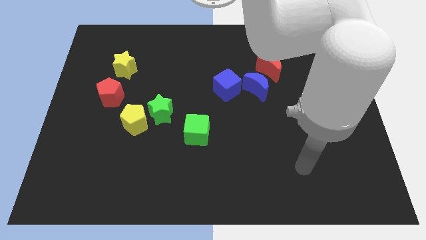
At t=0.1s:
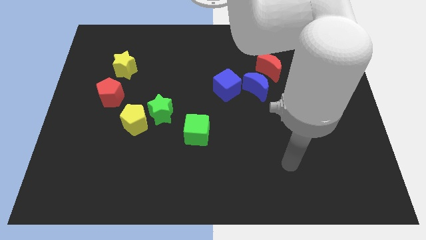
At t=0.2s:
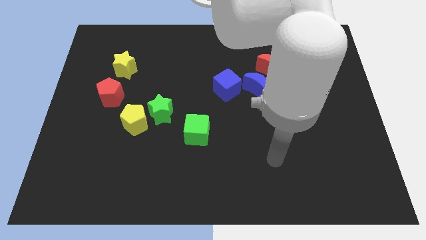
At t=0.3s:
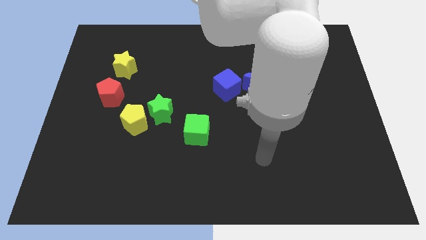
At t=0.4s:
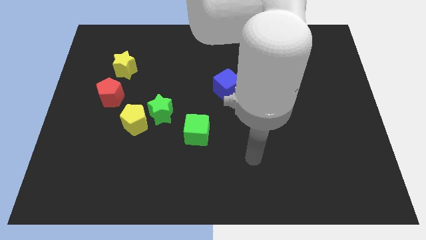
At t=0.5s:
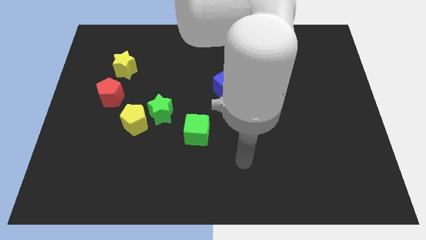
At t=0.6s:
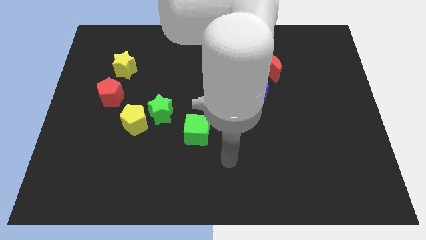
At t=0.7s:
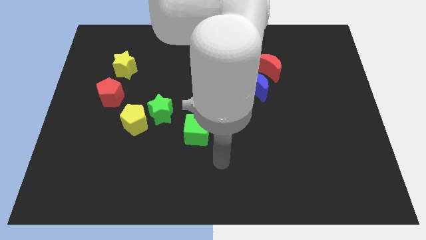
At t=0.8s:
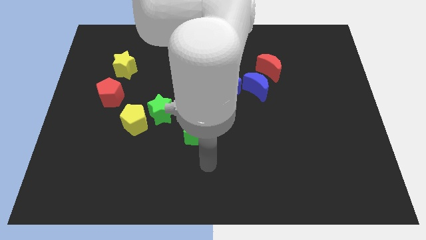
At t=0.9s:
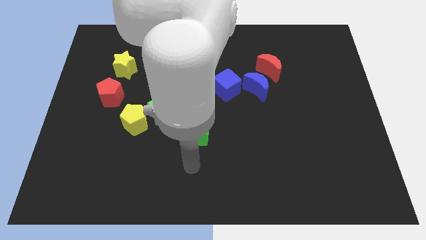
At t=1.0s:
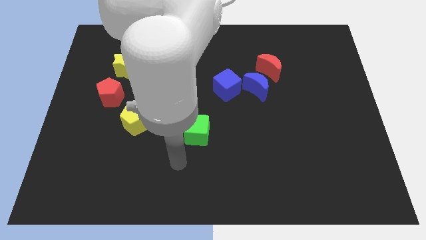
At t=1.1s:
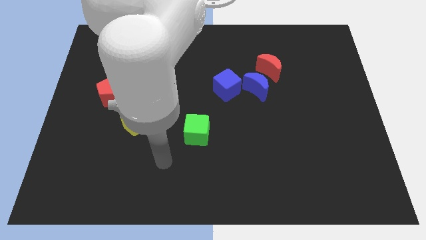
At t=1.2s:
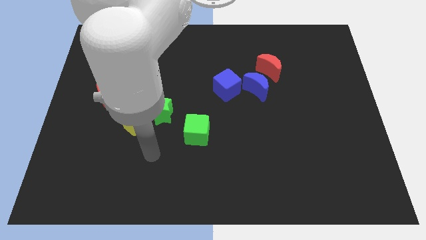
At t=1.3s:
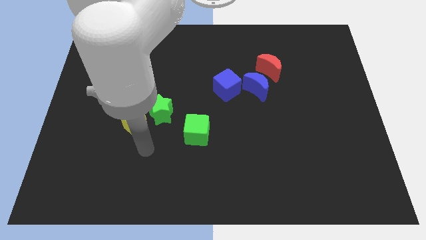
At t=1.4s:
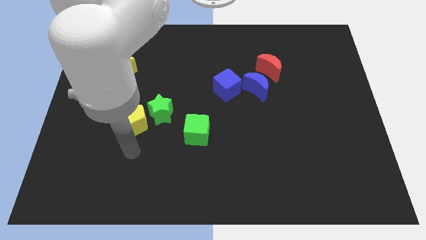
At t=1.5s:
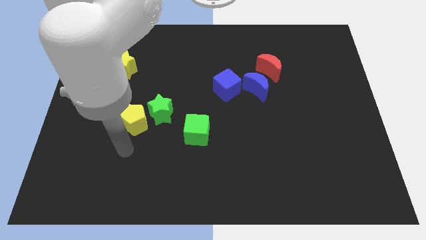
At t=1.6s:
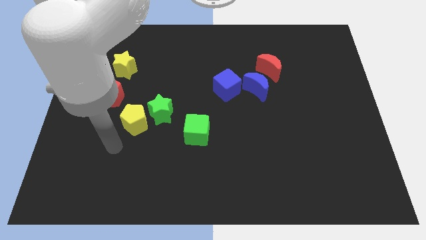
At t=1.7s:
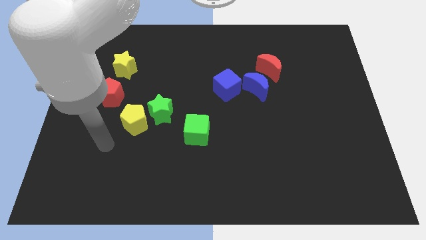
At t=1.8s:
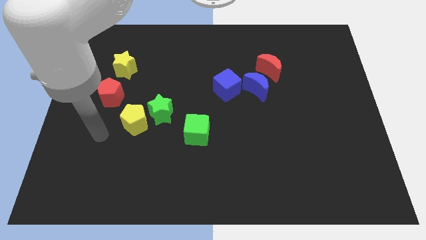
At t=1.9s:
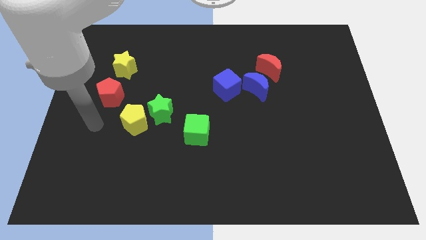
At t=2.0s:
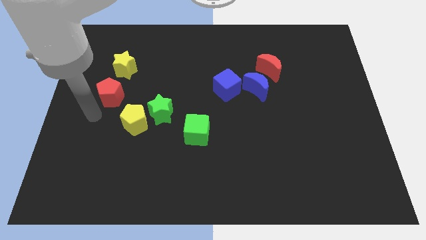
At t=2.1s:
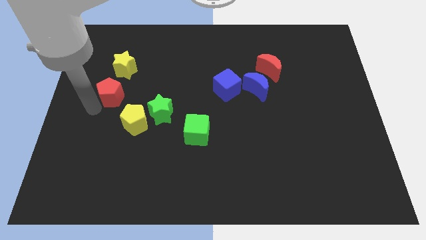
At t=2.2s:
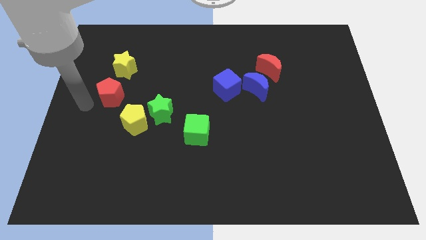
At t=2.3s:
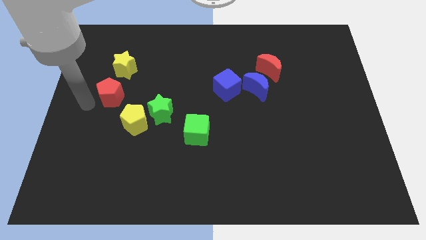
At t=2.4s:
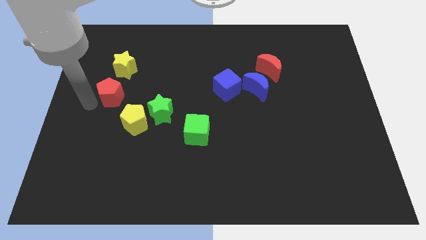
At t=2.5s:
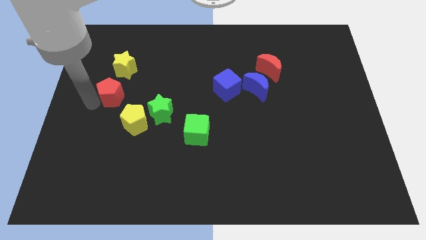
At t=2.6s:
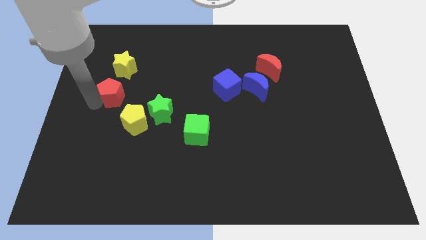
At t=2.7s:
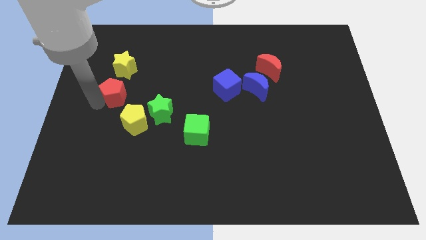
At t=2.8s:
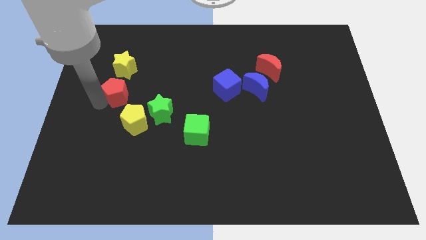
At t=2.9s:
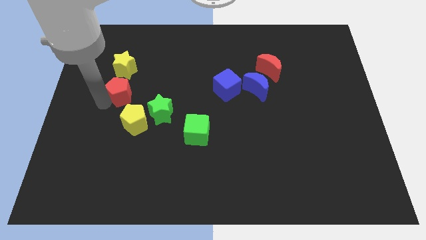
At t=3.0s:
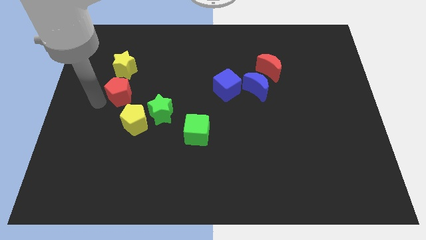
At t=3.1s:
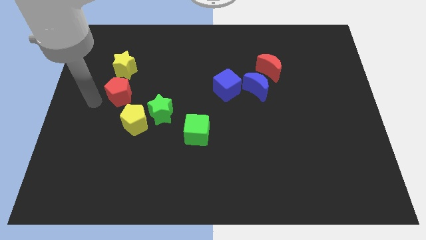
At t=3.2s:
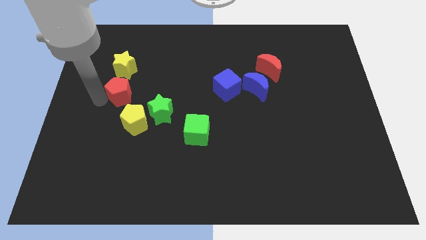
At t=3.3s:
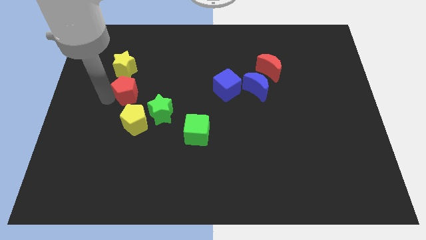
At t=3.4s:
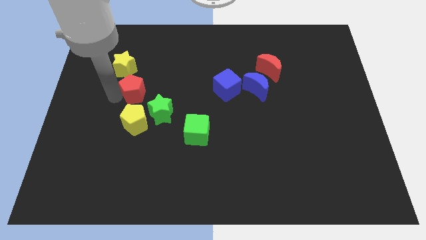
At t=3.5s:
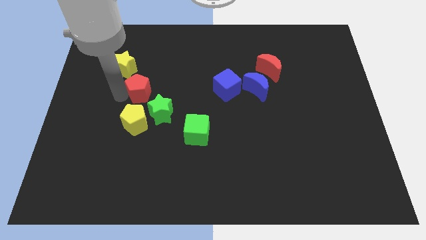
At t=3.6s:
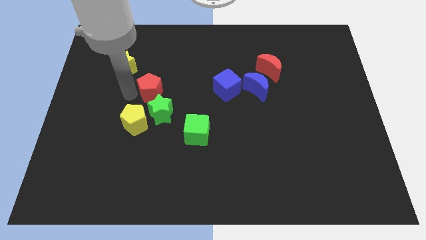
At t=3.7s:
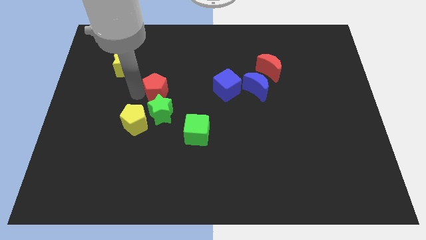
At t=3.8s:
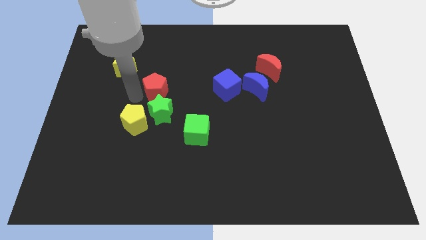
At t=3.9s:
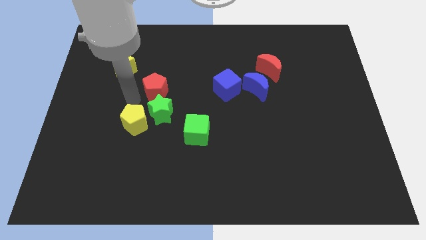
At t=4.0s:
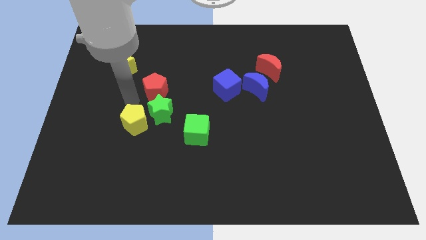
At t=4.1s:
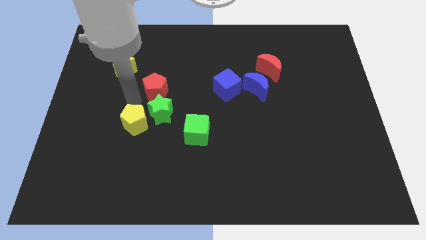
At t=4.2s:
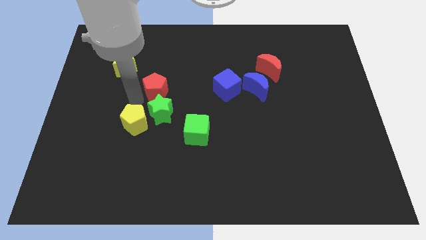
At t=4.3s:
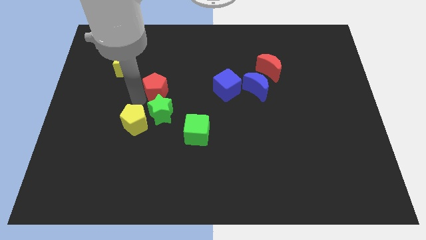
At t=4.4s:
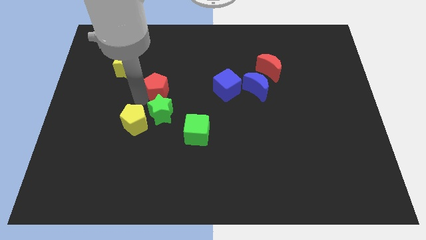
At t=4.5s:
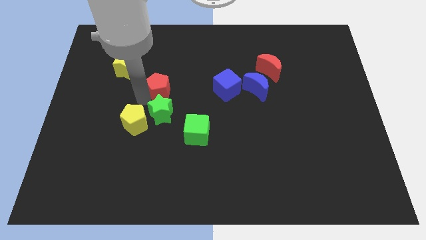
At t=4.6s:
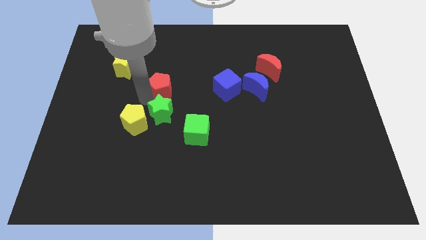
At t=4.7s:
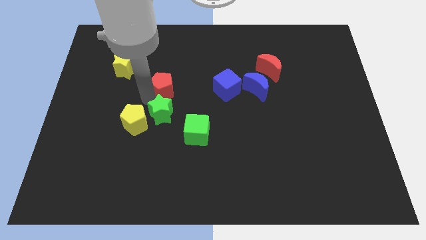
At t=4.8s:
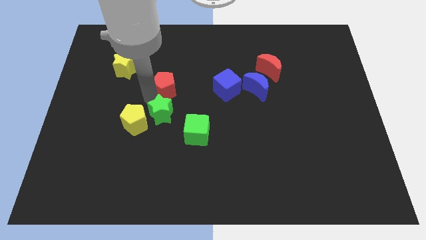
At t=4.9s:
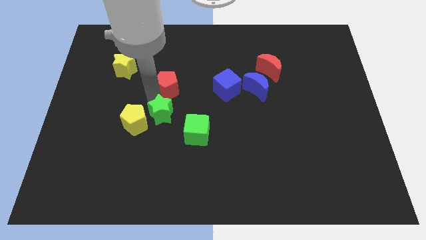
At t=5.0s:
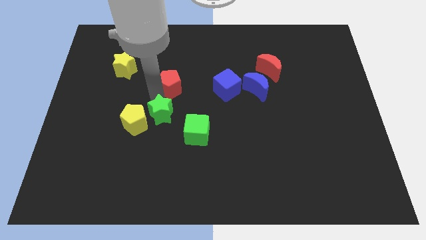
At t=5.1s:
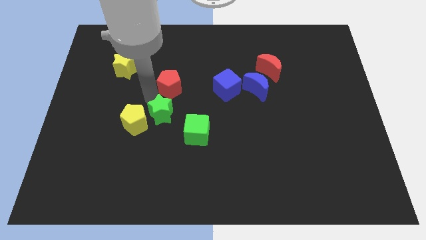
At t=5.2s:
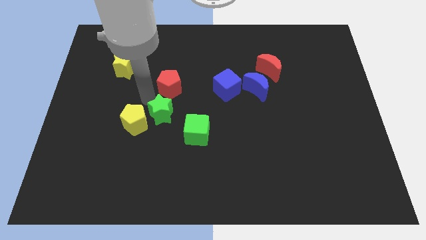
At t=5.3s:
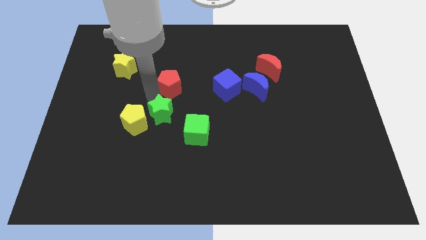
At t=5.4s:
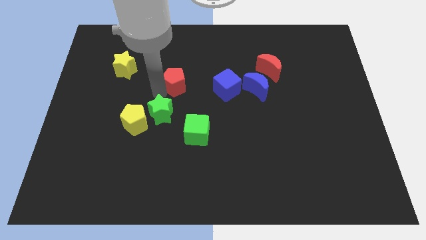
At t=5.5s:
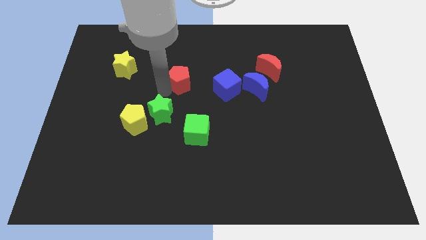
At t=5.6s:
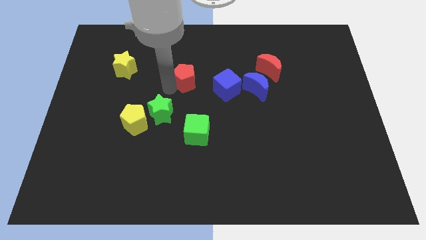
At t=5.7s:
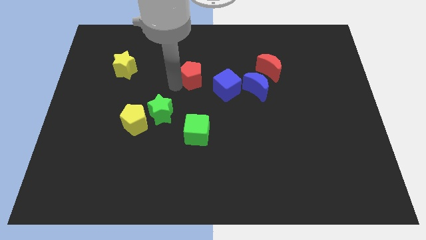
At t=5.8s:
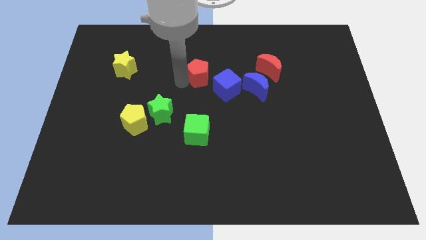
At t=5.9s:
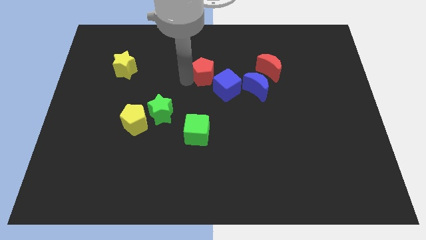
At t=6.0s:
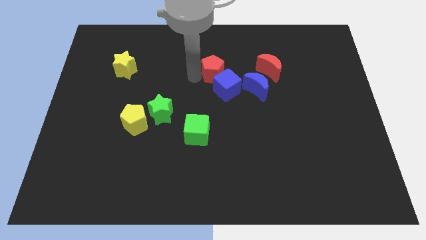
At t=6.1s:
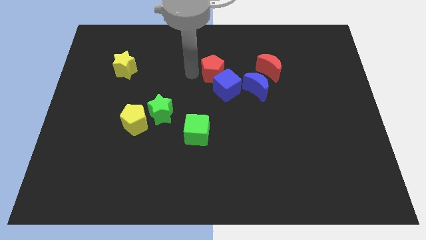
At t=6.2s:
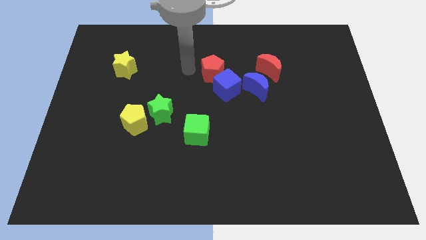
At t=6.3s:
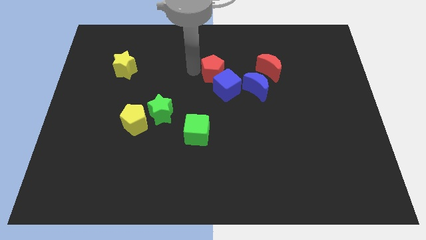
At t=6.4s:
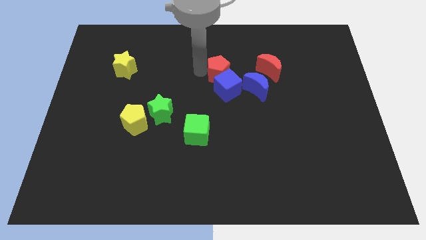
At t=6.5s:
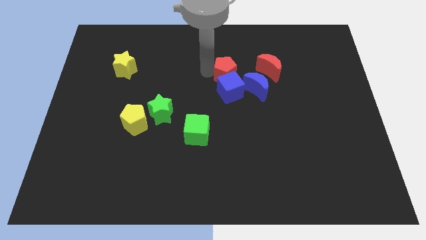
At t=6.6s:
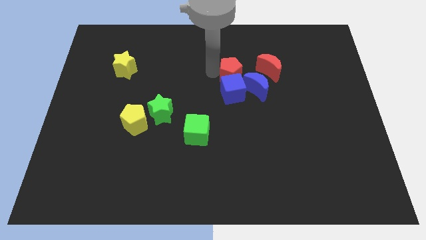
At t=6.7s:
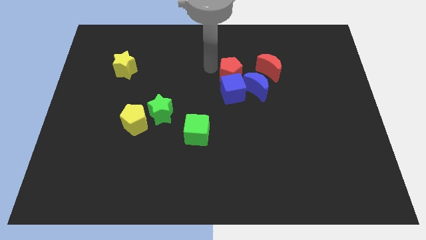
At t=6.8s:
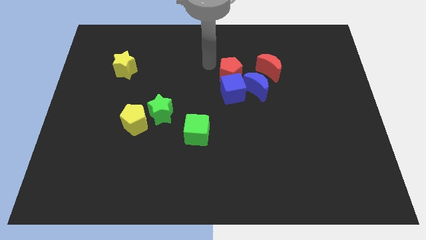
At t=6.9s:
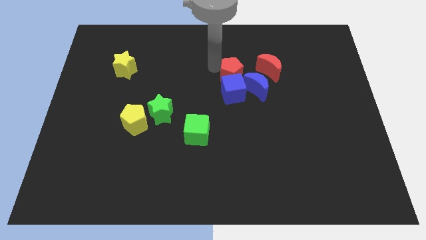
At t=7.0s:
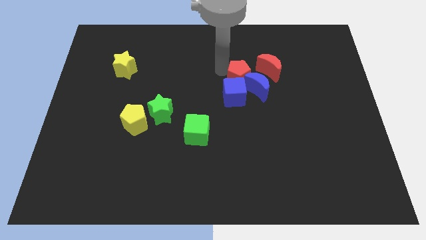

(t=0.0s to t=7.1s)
put the red pentagon to the blue moon

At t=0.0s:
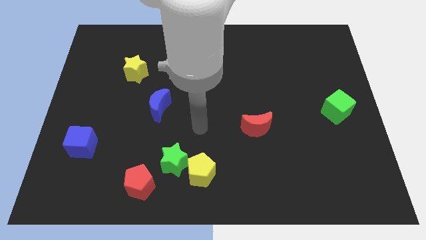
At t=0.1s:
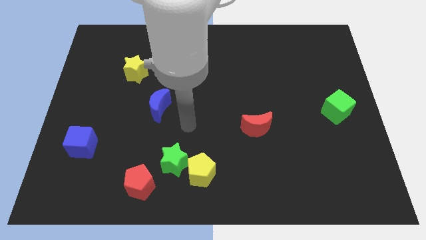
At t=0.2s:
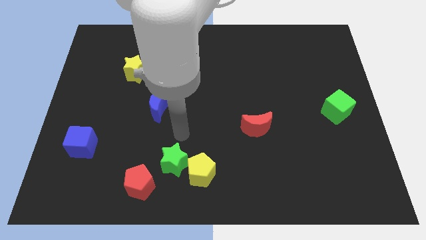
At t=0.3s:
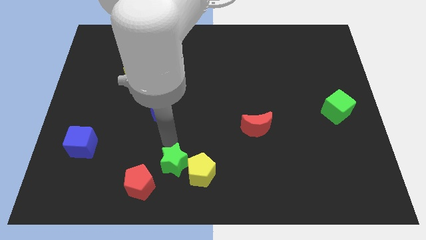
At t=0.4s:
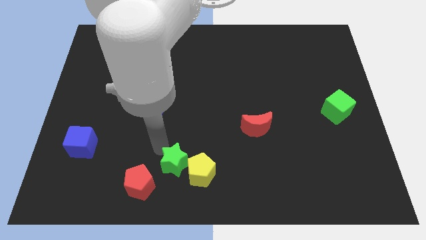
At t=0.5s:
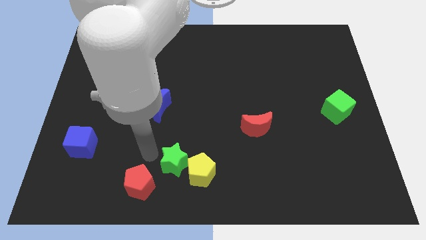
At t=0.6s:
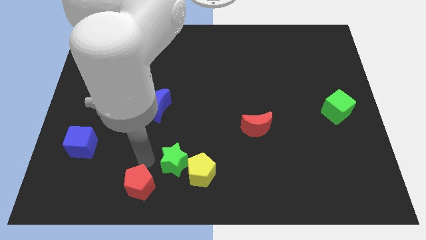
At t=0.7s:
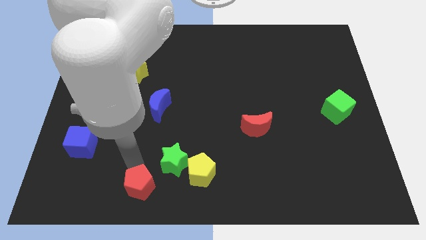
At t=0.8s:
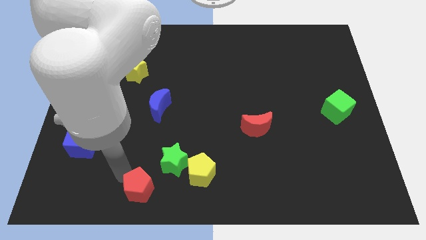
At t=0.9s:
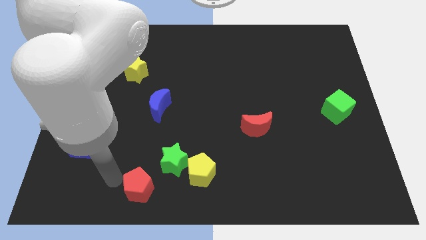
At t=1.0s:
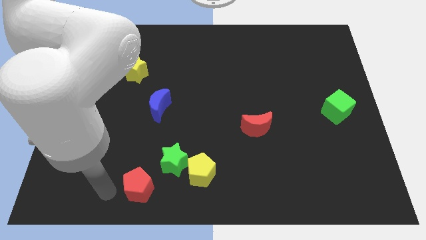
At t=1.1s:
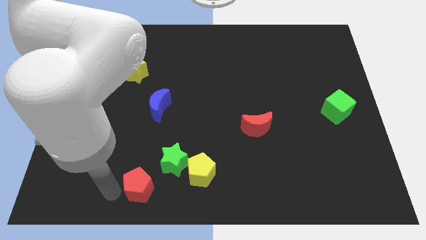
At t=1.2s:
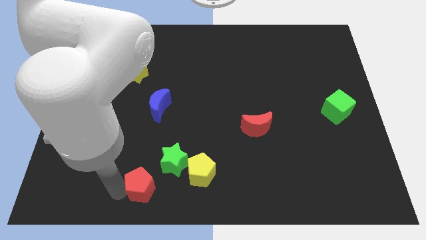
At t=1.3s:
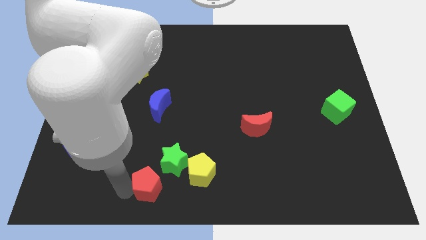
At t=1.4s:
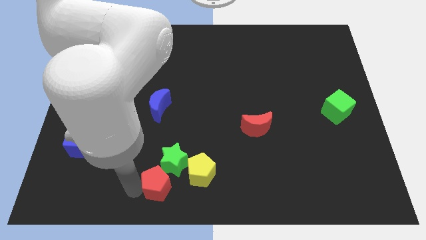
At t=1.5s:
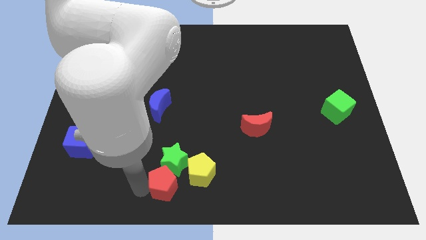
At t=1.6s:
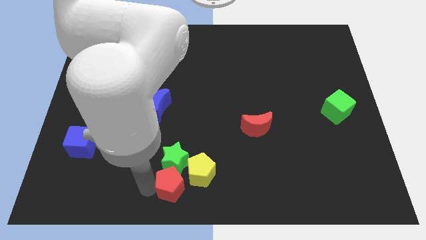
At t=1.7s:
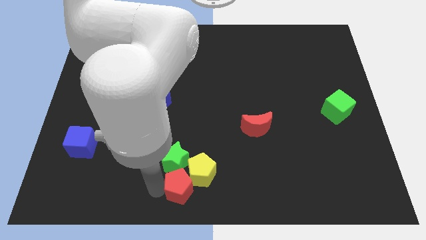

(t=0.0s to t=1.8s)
slide the red pentagon towards the yellow pentagon
